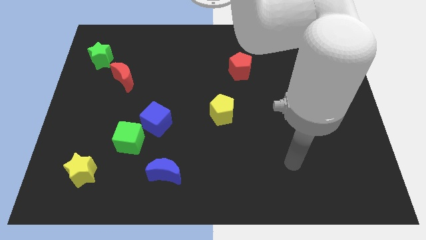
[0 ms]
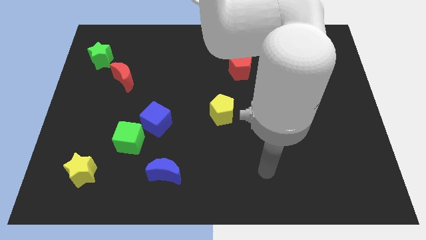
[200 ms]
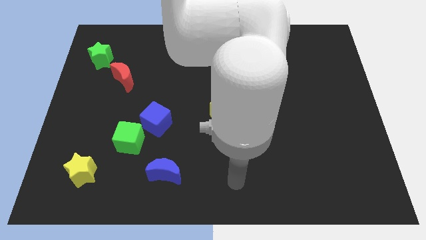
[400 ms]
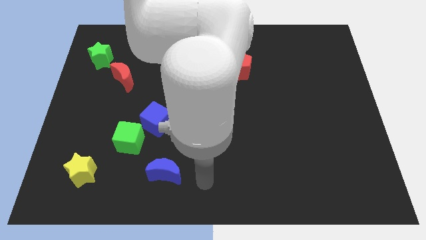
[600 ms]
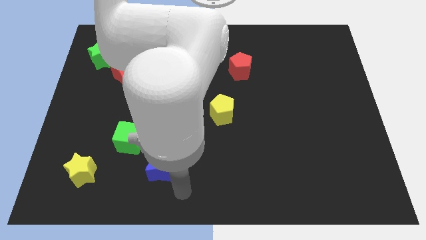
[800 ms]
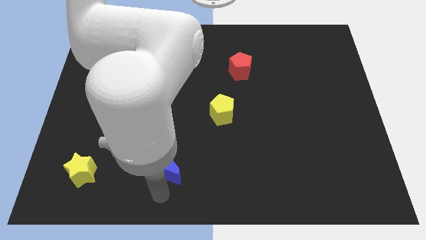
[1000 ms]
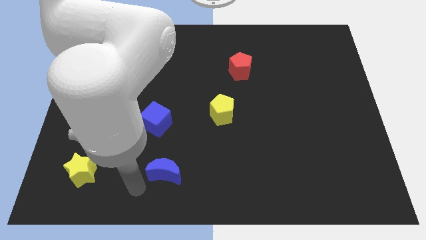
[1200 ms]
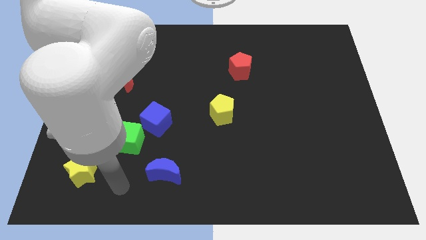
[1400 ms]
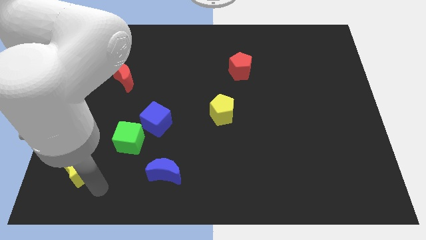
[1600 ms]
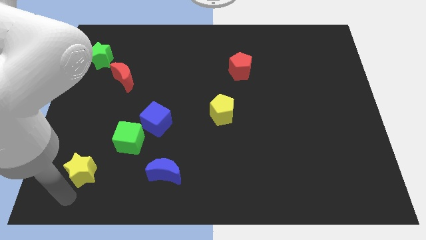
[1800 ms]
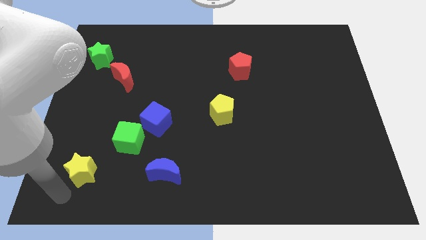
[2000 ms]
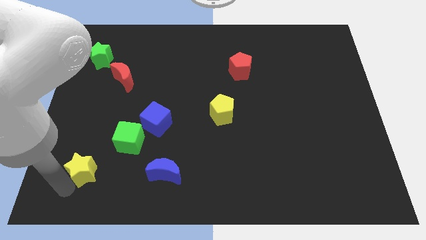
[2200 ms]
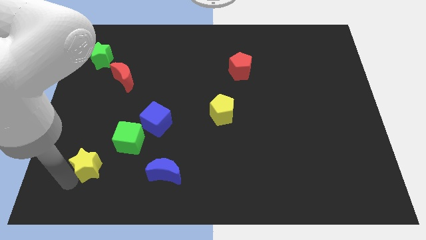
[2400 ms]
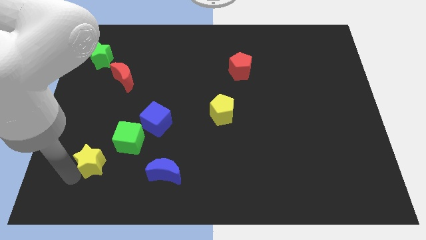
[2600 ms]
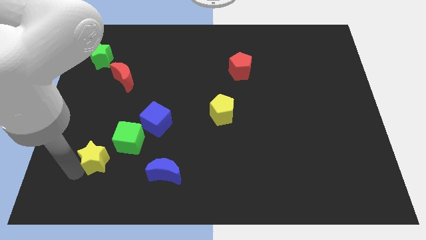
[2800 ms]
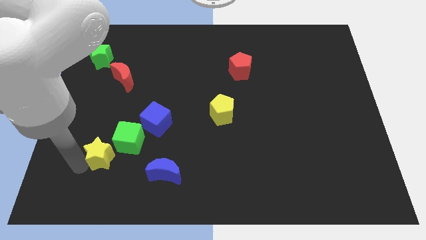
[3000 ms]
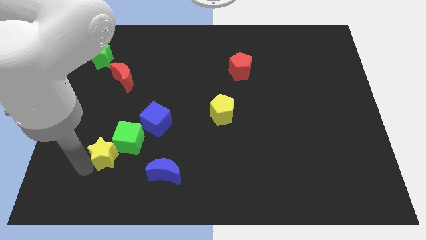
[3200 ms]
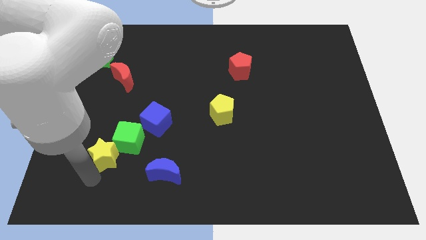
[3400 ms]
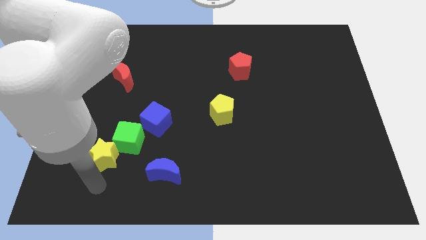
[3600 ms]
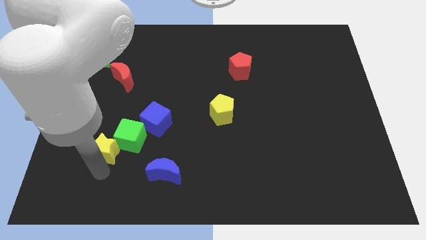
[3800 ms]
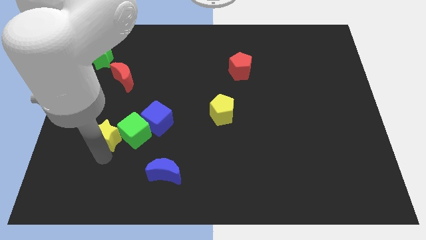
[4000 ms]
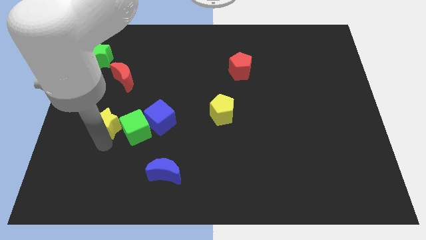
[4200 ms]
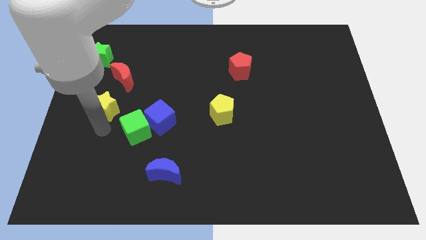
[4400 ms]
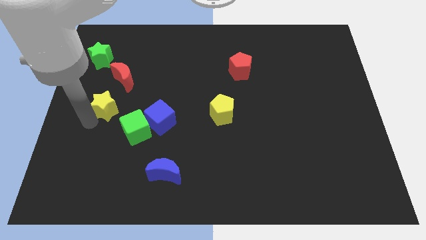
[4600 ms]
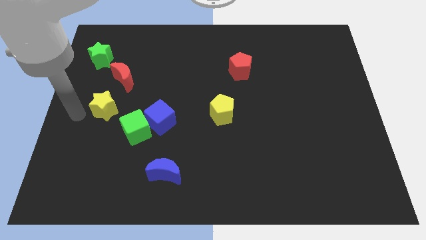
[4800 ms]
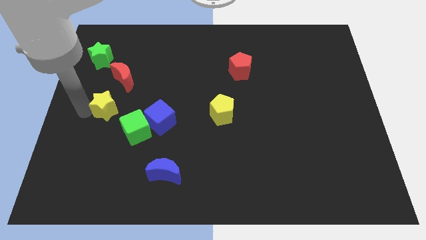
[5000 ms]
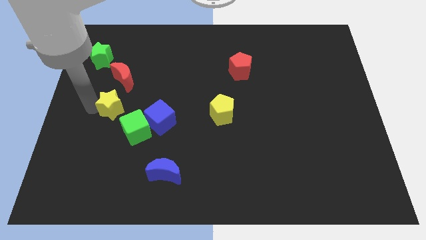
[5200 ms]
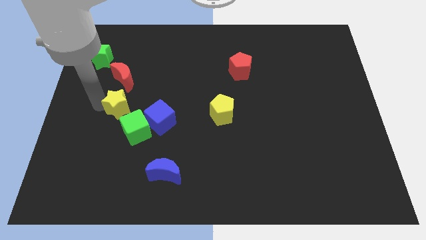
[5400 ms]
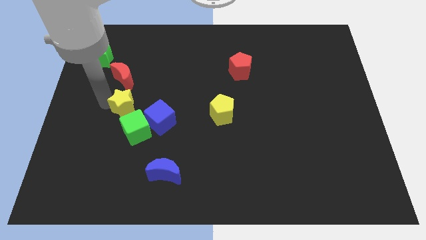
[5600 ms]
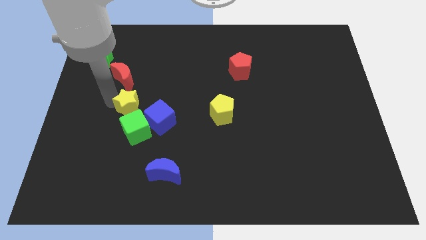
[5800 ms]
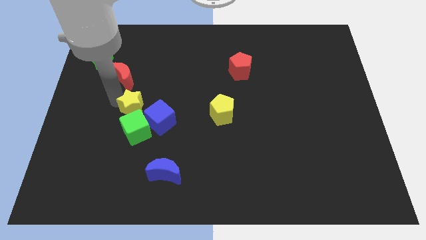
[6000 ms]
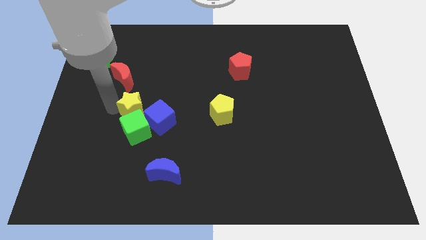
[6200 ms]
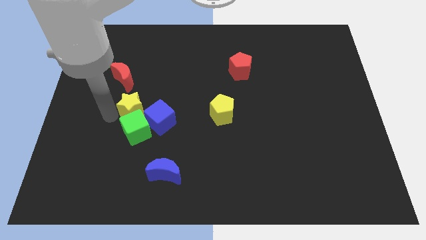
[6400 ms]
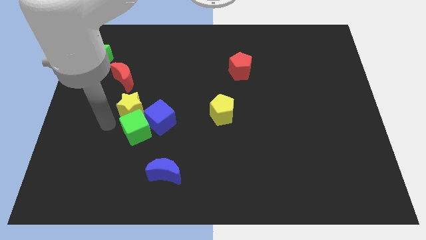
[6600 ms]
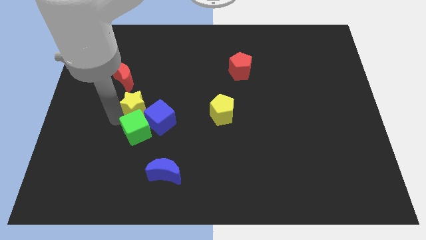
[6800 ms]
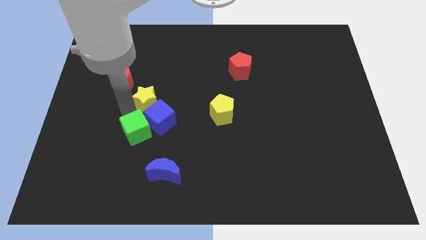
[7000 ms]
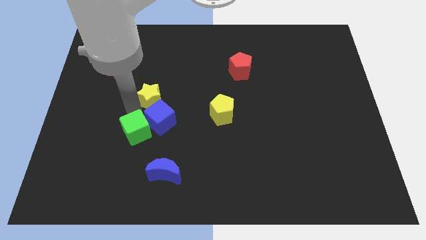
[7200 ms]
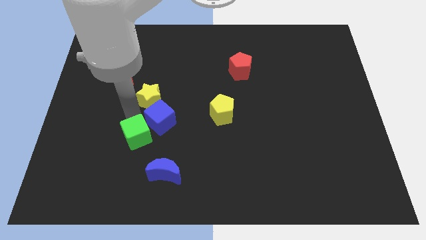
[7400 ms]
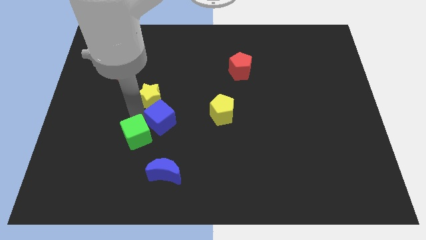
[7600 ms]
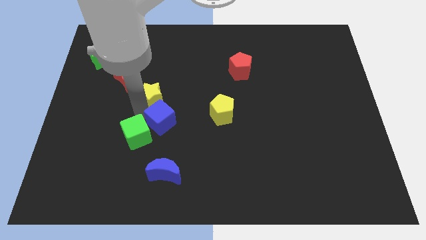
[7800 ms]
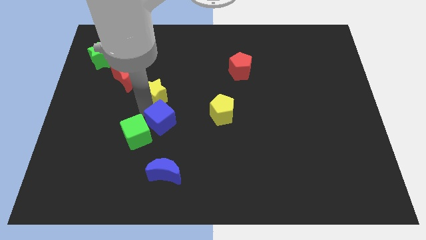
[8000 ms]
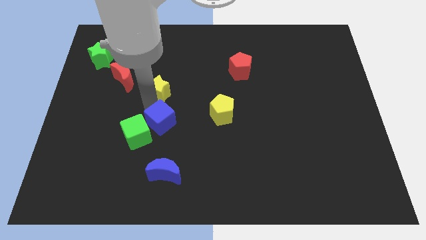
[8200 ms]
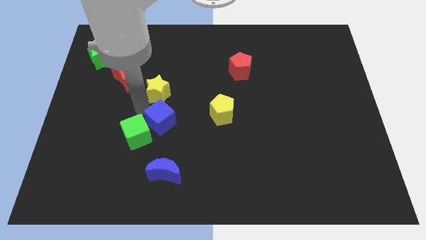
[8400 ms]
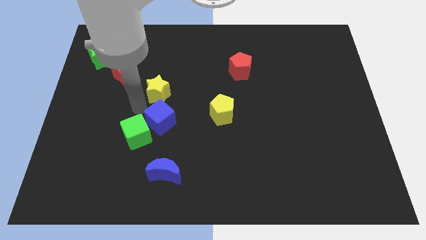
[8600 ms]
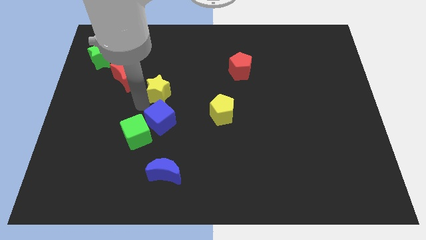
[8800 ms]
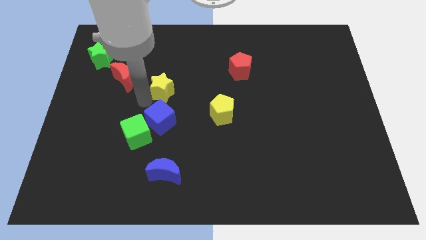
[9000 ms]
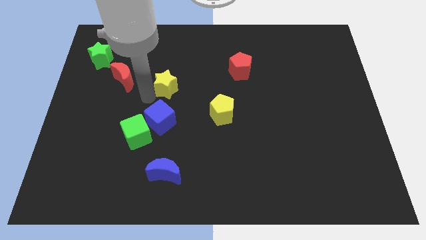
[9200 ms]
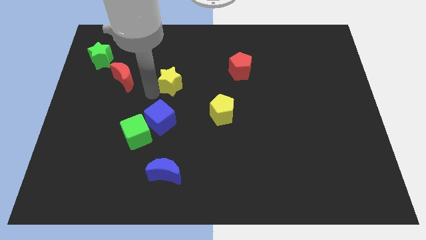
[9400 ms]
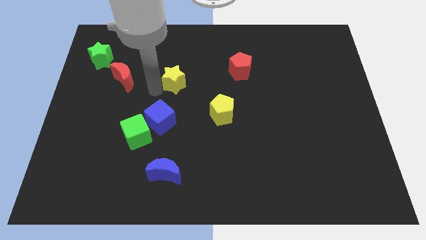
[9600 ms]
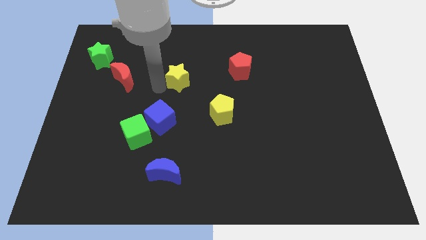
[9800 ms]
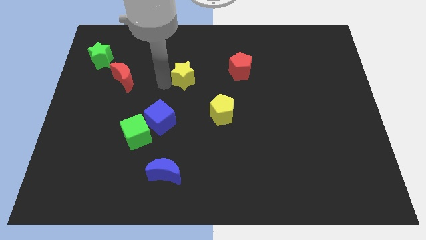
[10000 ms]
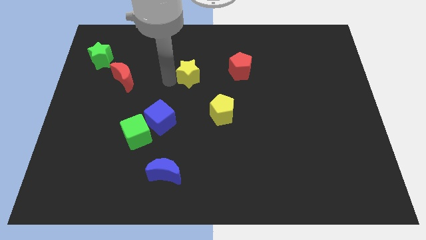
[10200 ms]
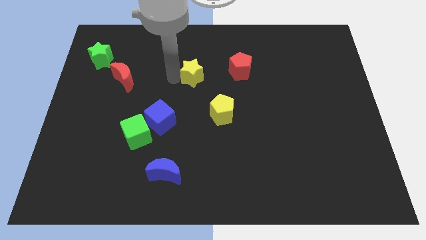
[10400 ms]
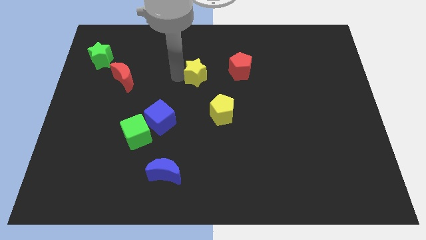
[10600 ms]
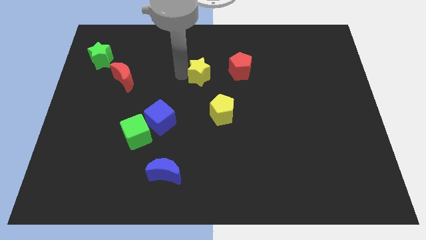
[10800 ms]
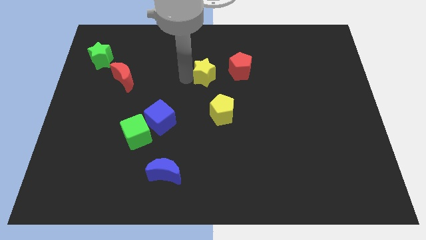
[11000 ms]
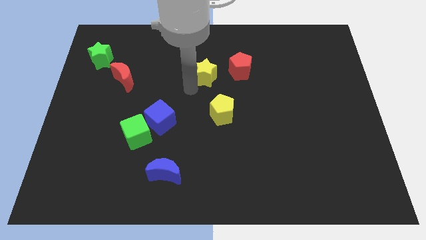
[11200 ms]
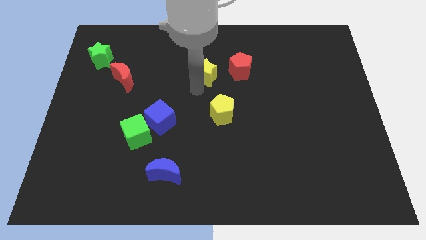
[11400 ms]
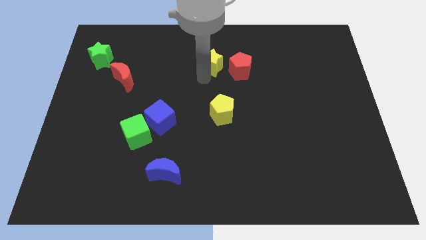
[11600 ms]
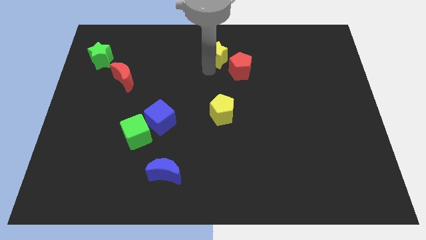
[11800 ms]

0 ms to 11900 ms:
move the yellow star to the top
